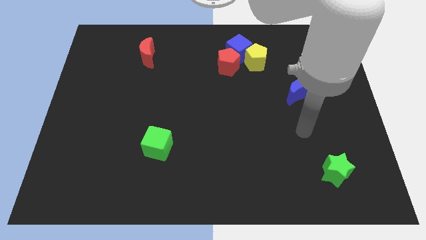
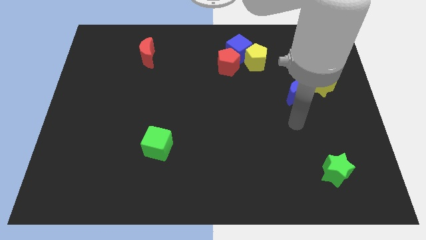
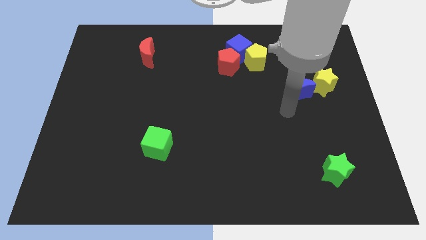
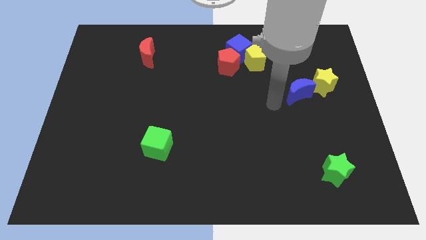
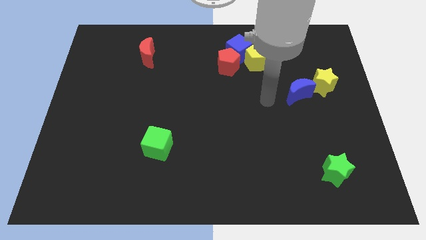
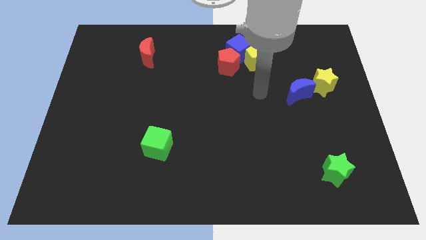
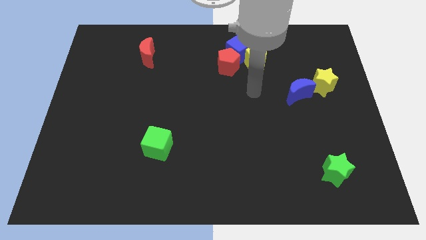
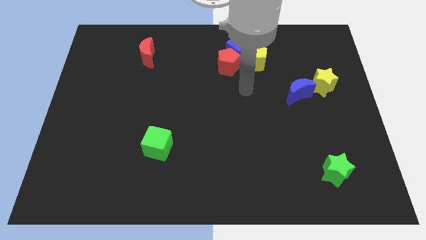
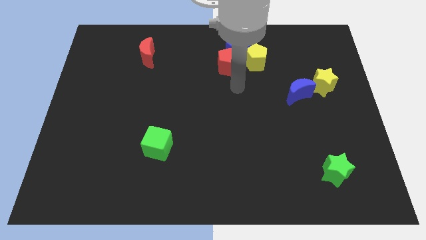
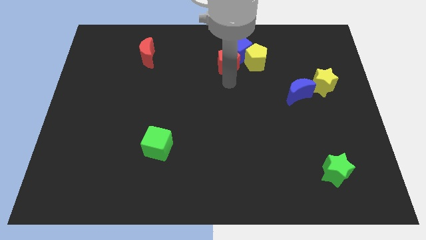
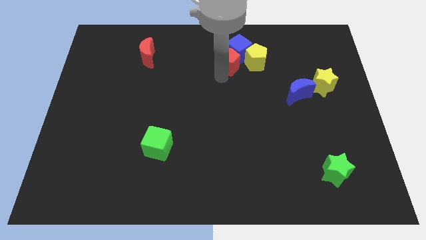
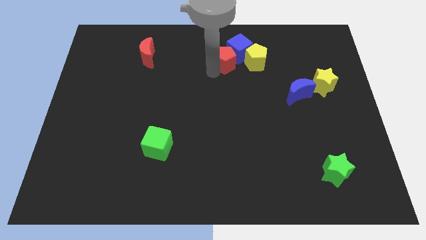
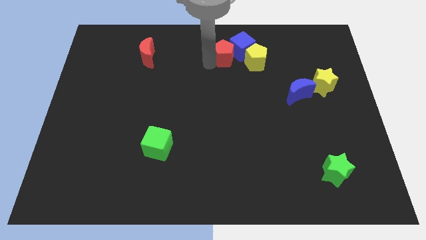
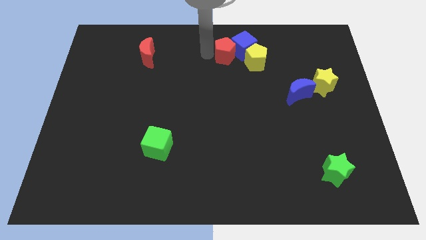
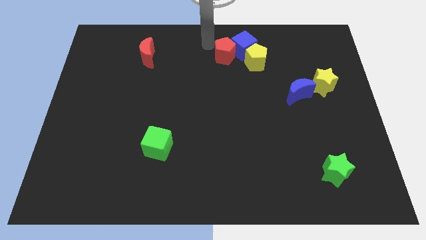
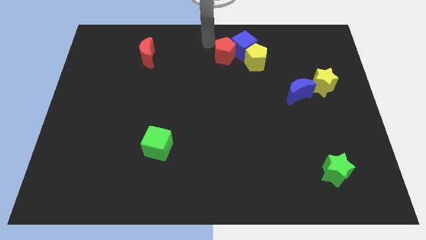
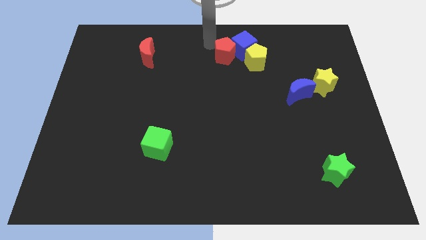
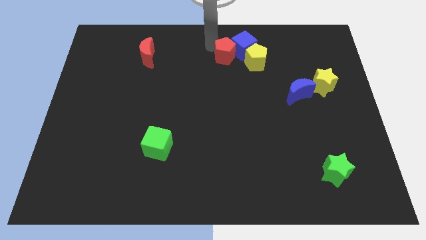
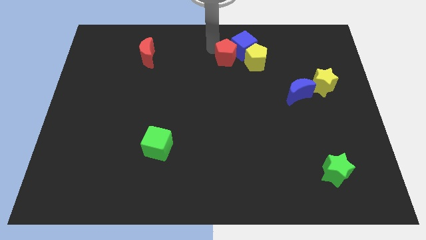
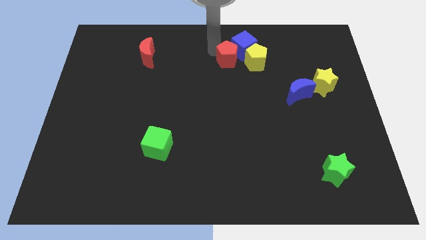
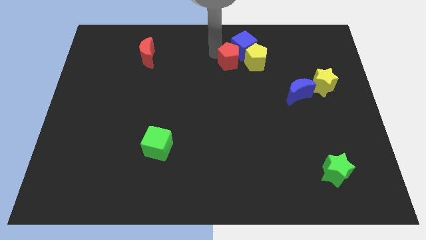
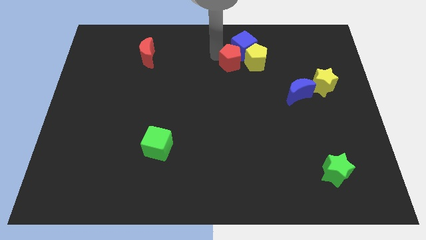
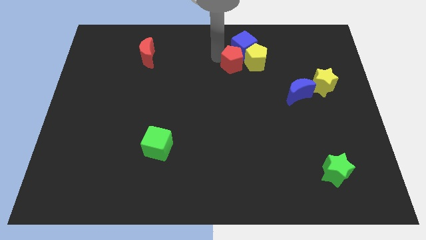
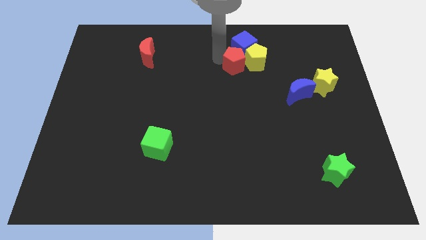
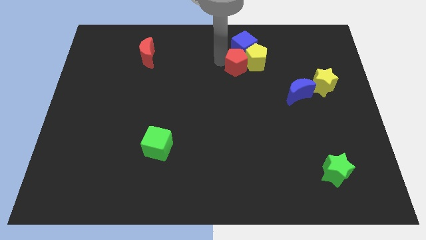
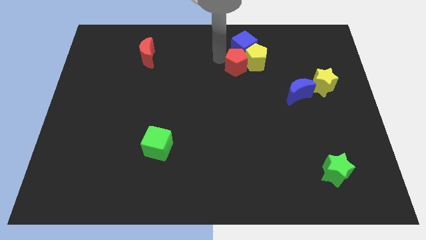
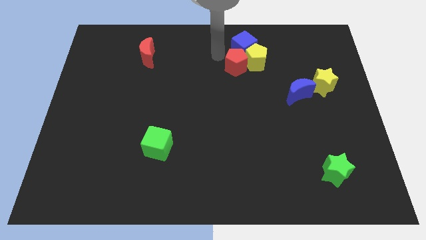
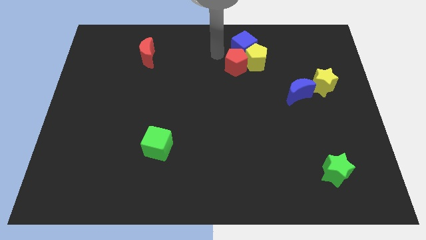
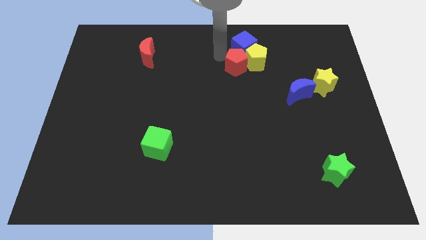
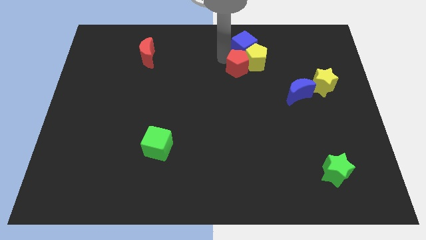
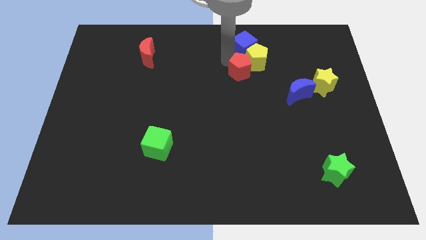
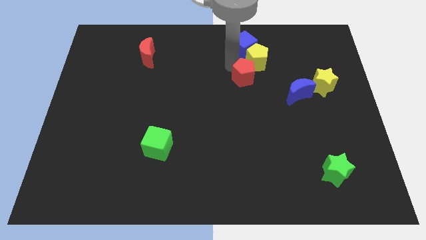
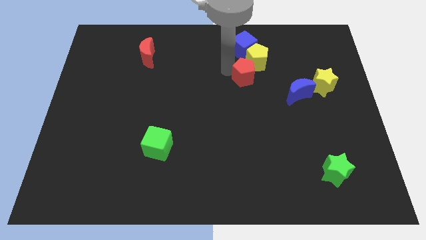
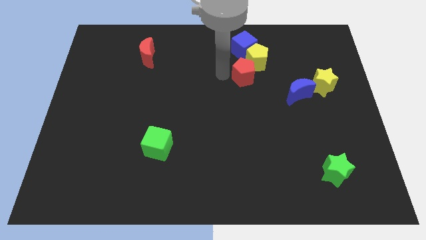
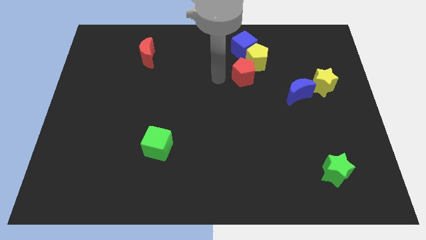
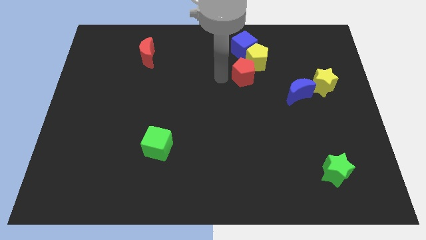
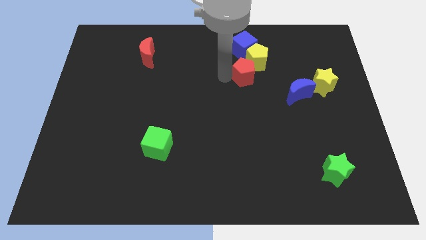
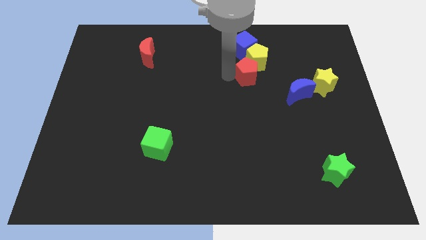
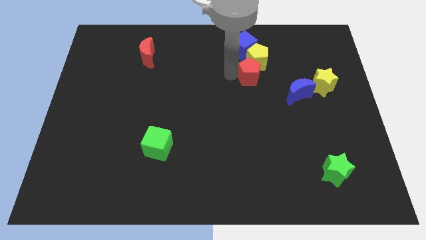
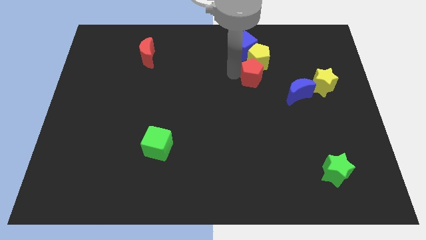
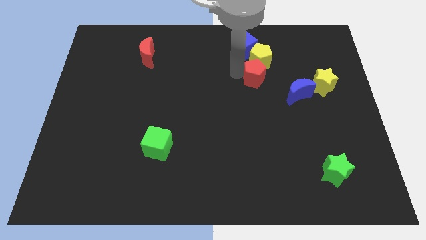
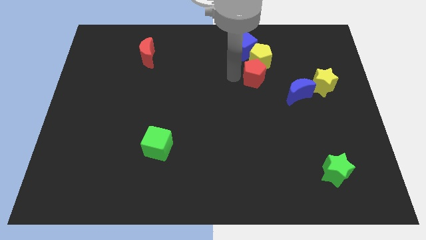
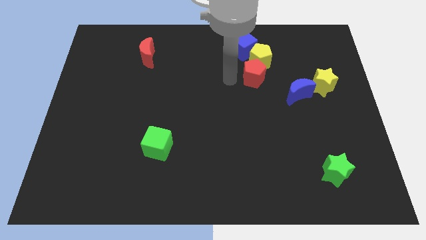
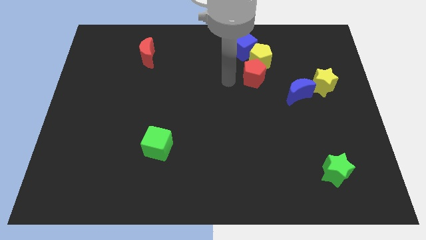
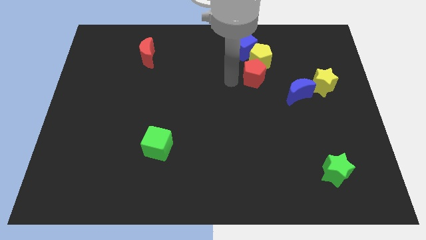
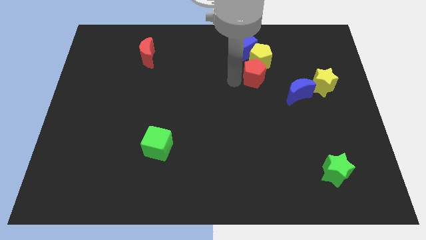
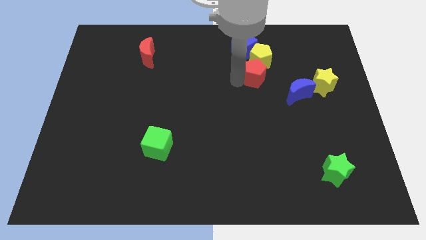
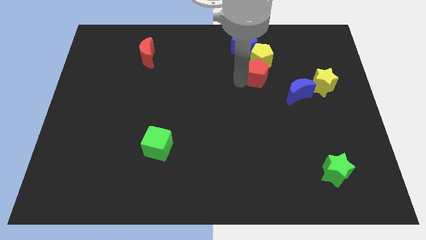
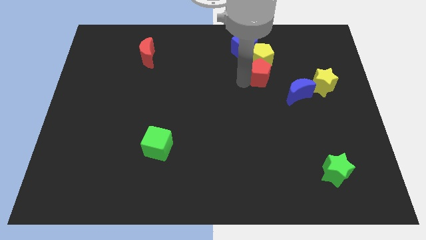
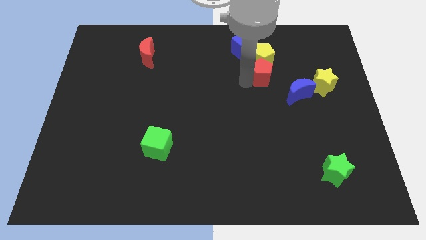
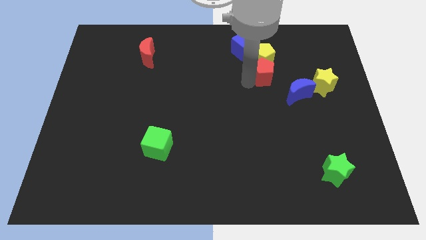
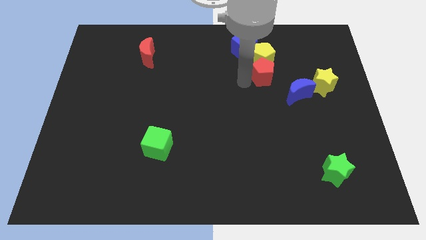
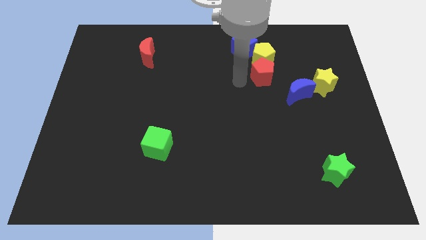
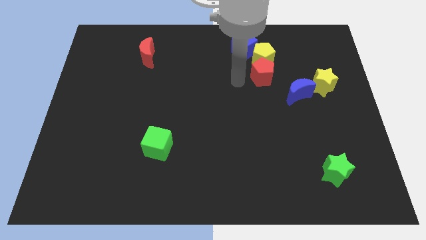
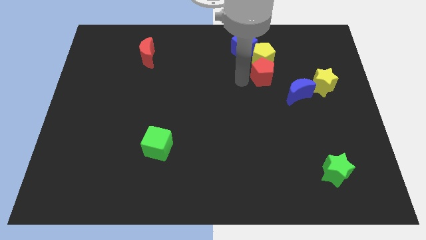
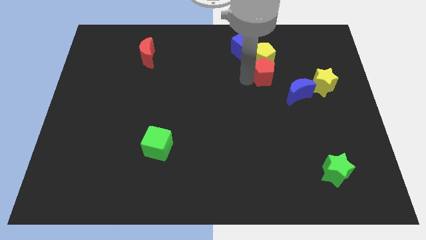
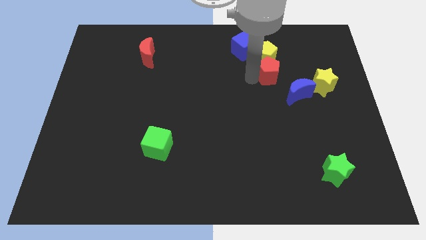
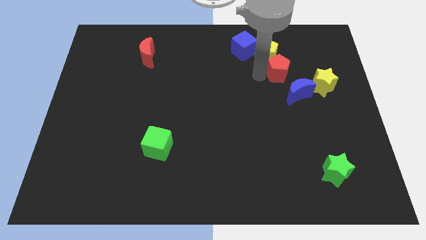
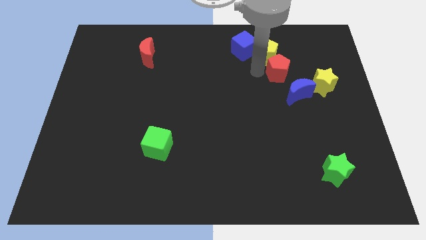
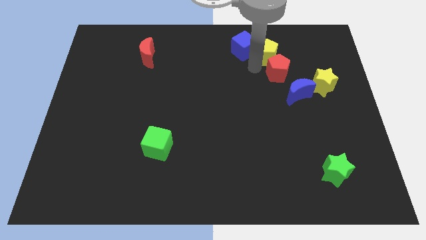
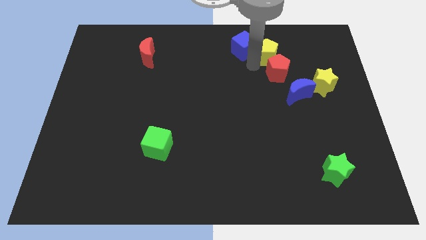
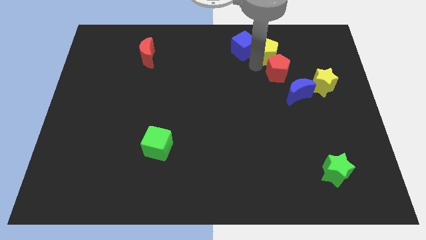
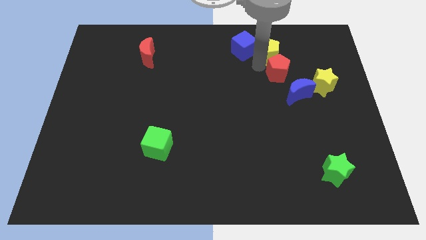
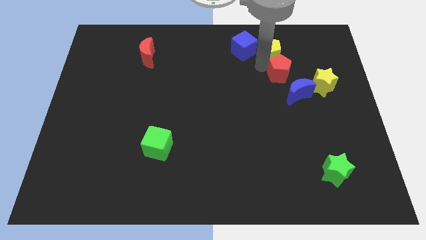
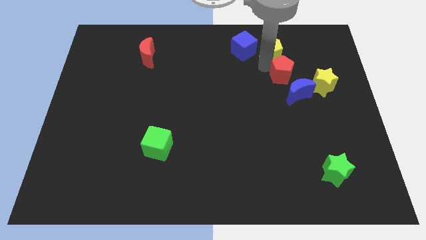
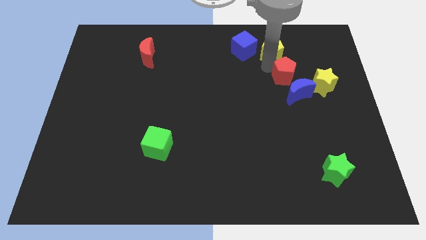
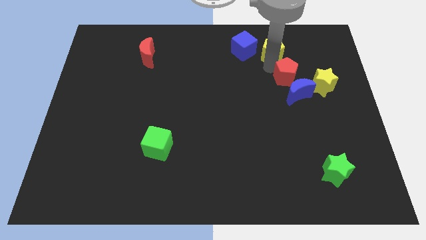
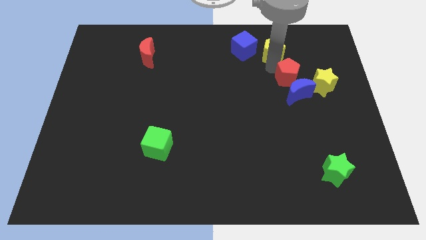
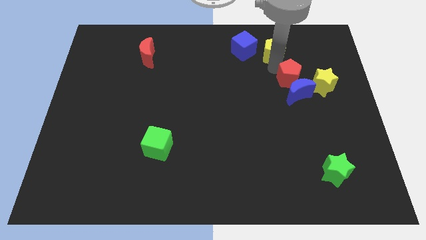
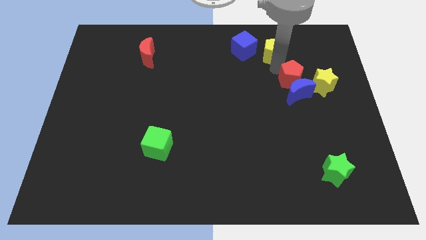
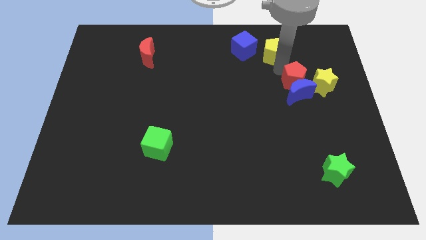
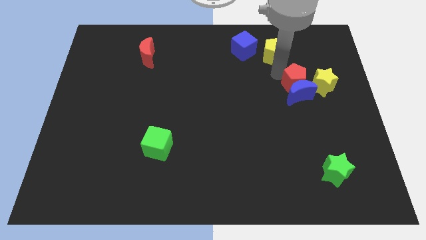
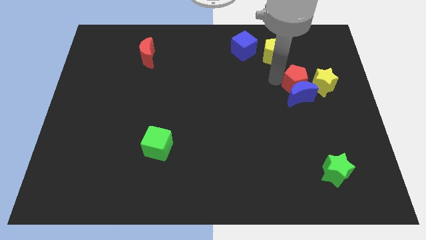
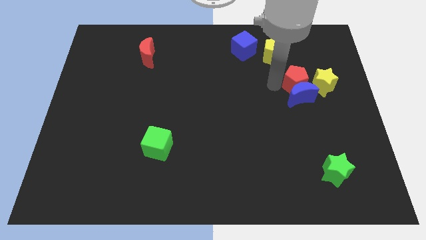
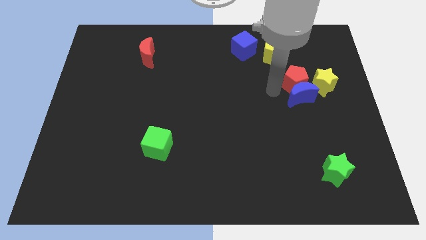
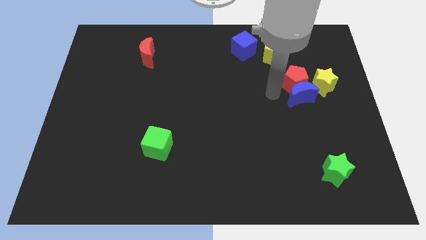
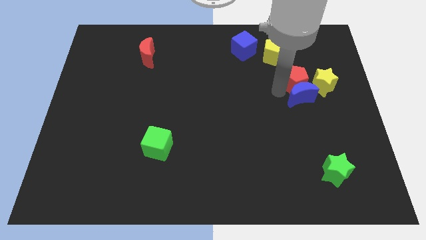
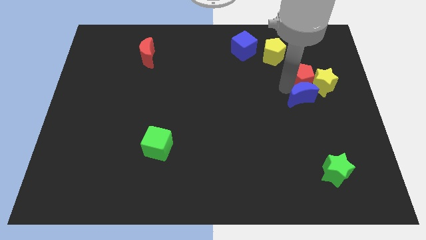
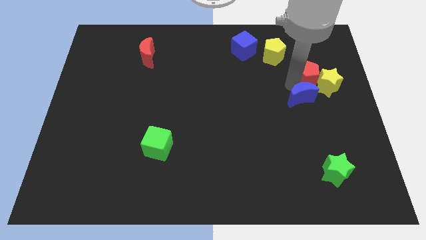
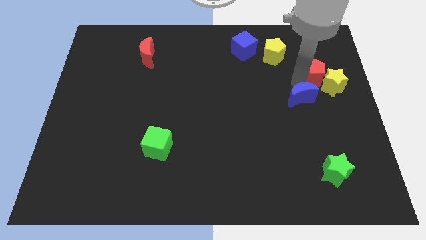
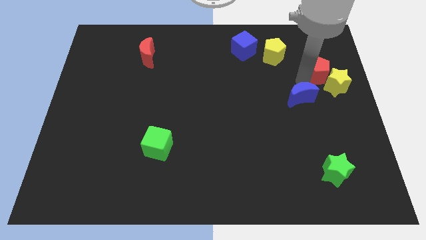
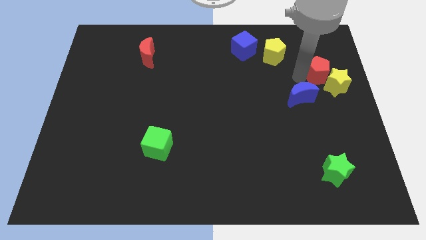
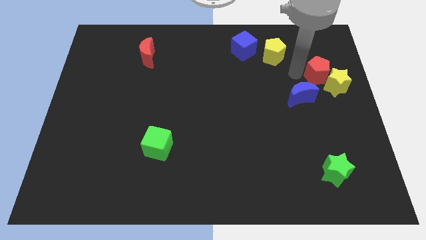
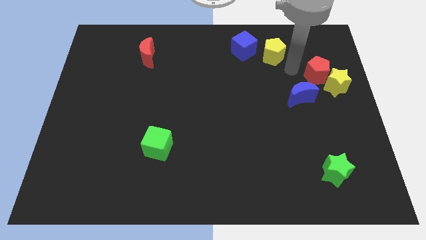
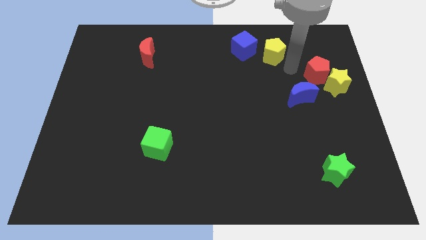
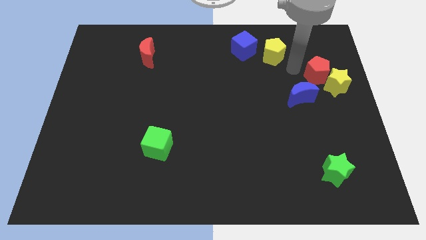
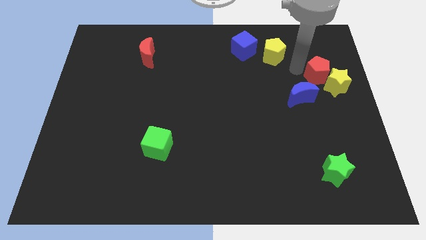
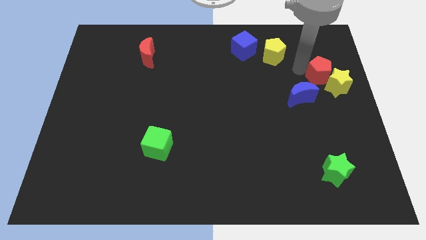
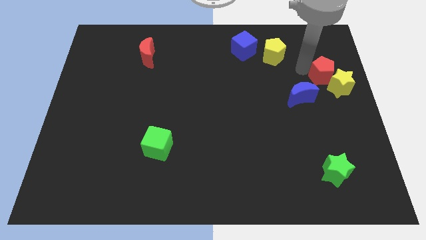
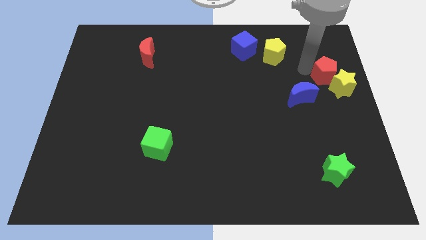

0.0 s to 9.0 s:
push the red pentagon to the right side of the board
